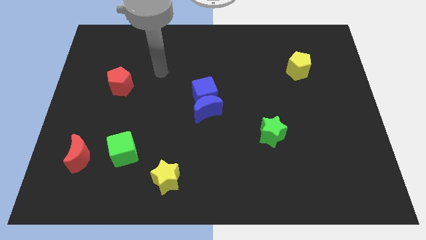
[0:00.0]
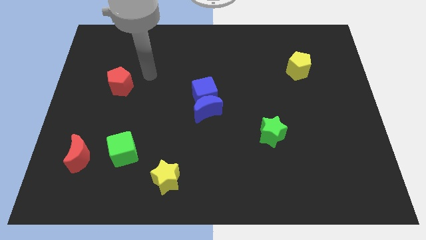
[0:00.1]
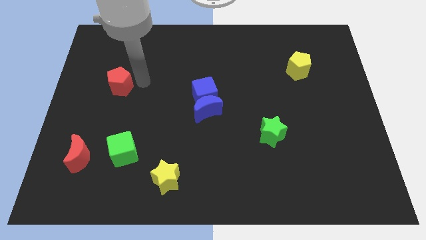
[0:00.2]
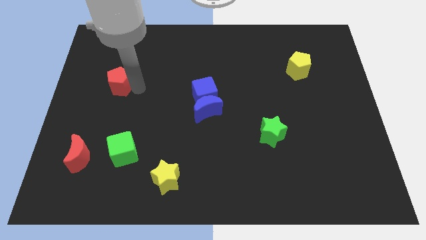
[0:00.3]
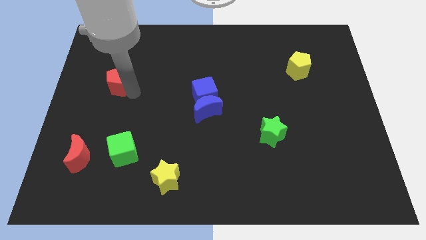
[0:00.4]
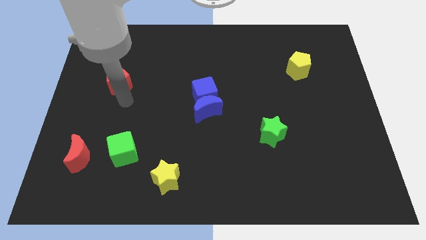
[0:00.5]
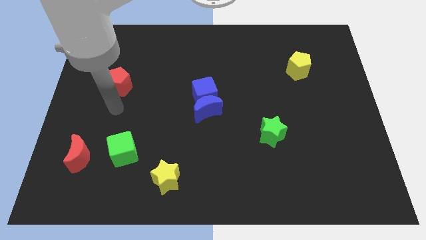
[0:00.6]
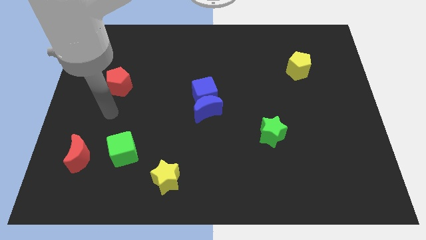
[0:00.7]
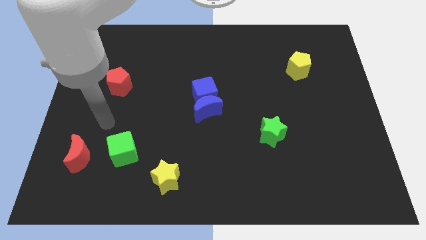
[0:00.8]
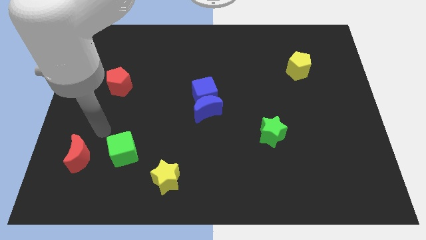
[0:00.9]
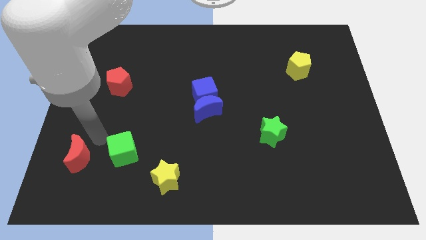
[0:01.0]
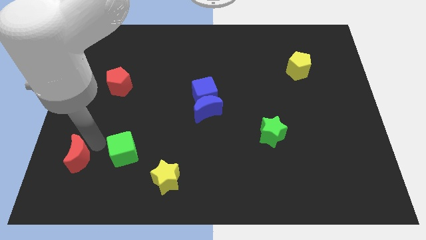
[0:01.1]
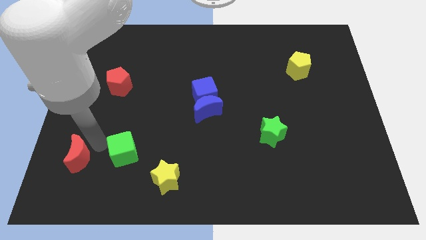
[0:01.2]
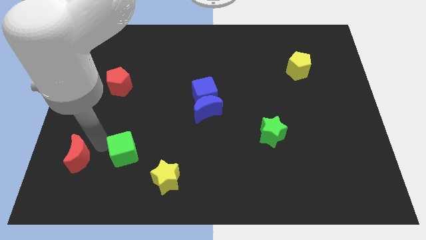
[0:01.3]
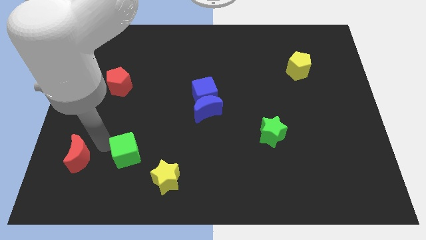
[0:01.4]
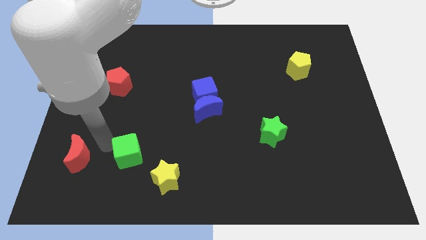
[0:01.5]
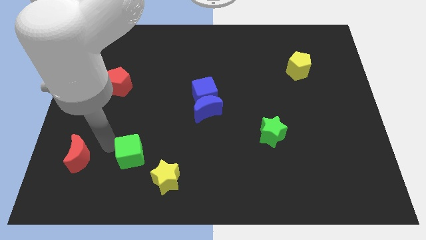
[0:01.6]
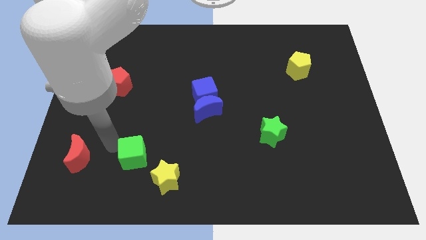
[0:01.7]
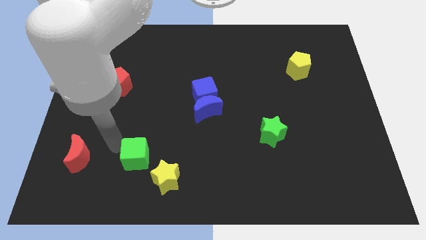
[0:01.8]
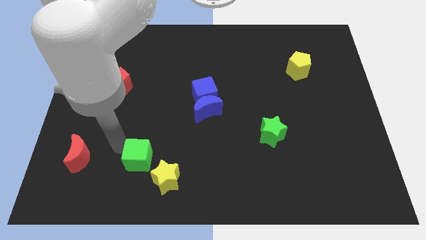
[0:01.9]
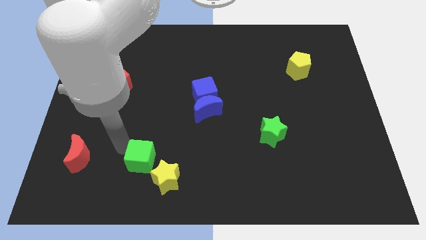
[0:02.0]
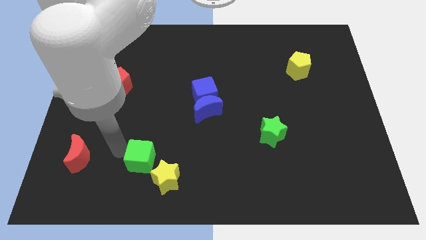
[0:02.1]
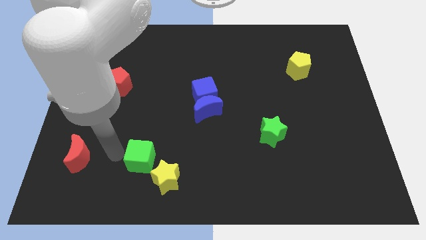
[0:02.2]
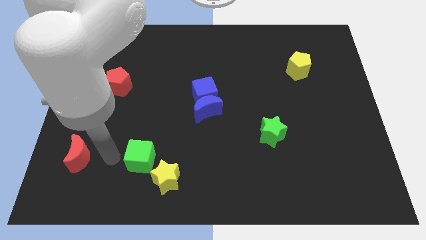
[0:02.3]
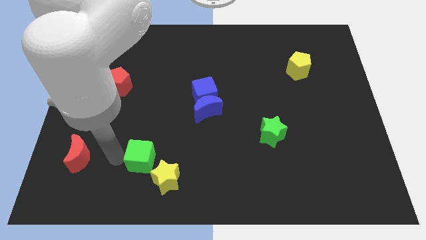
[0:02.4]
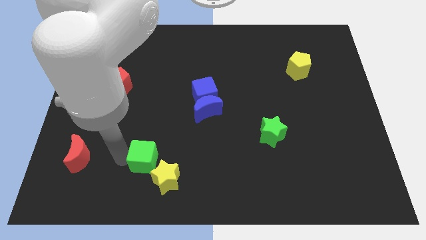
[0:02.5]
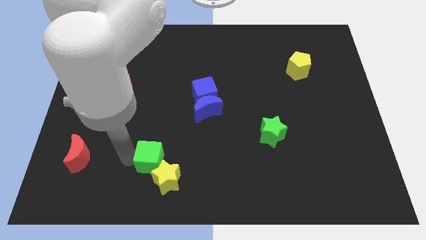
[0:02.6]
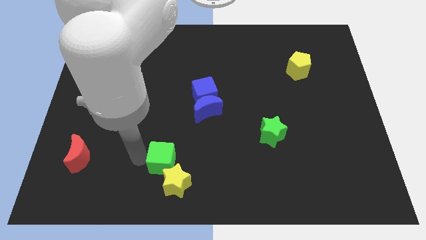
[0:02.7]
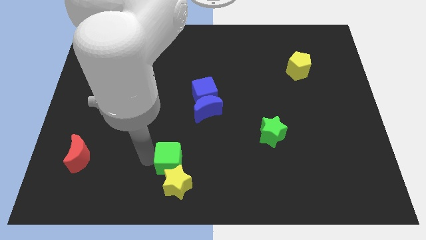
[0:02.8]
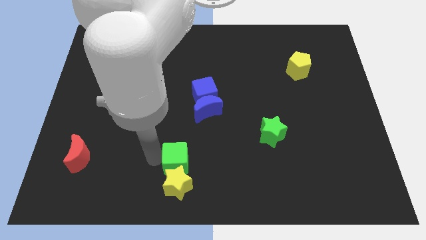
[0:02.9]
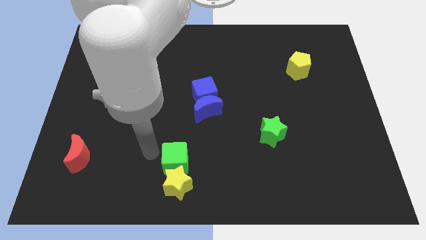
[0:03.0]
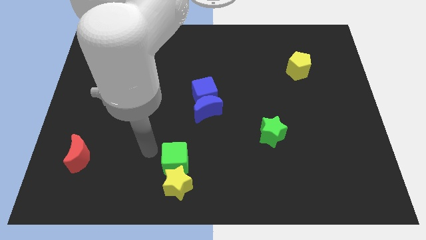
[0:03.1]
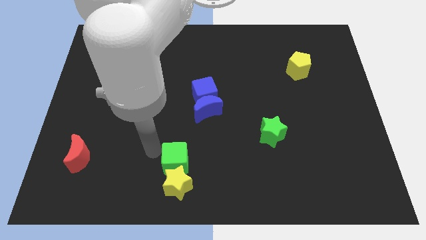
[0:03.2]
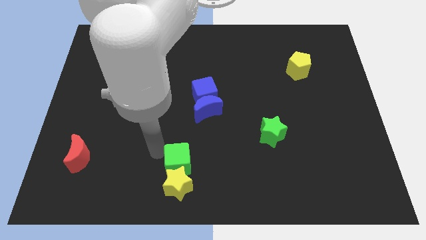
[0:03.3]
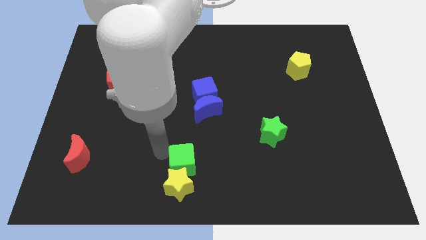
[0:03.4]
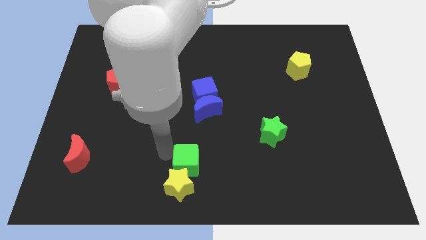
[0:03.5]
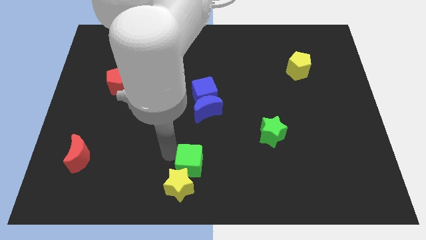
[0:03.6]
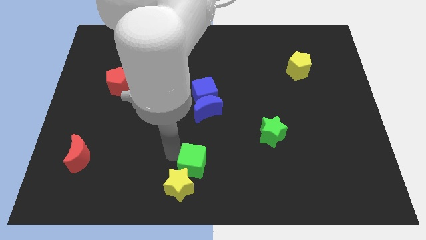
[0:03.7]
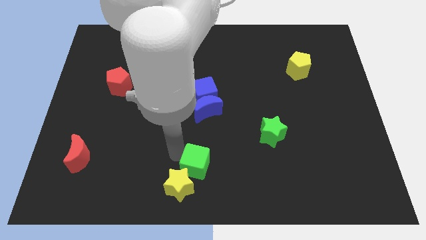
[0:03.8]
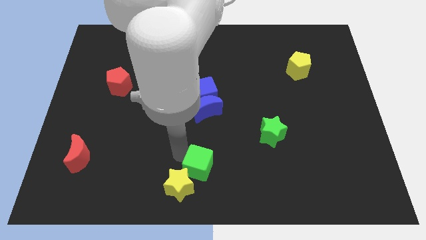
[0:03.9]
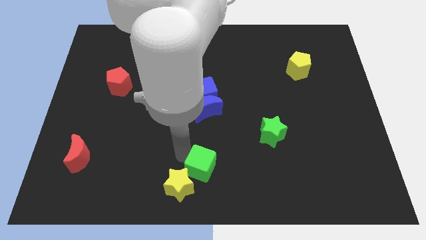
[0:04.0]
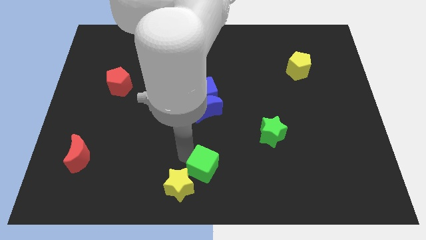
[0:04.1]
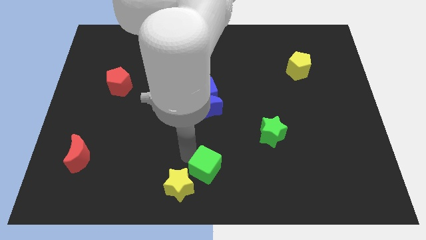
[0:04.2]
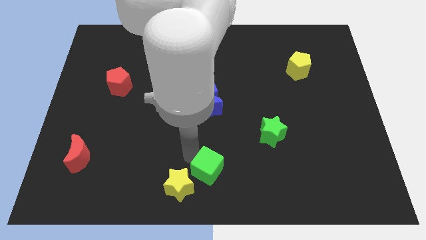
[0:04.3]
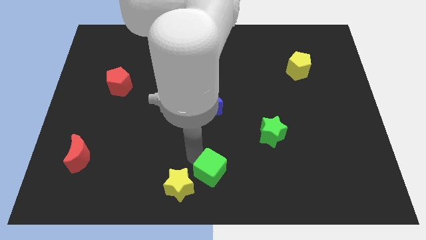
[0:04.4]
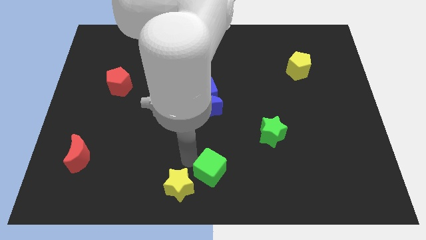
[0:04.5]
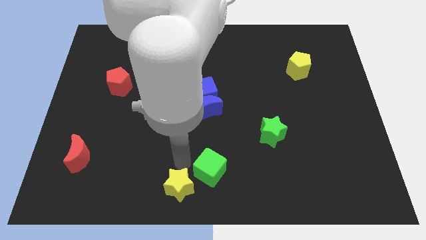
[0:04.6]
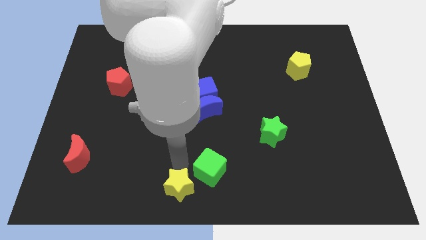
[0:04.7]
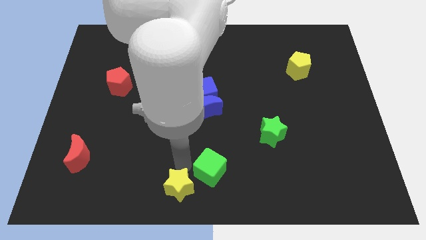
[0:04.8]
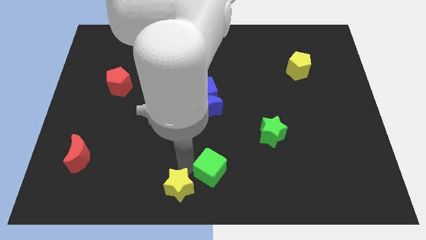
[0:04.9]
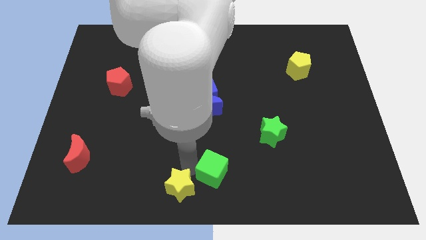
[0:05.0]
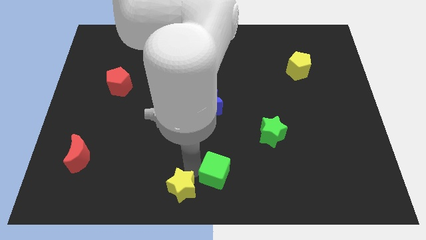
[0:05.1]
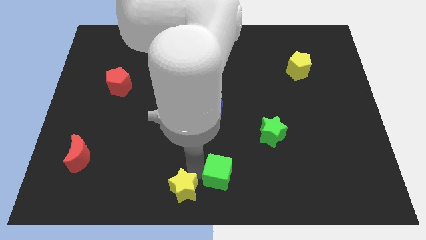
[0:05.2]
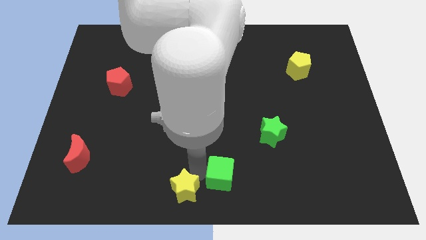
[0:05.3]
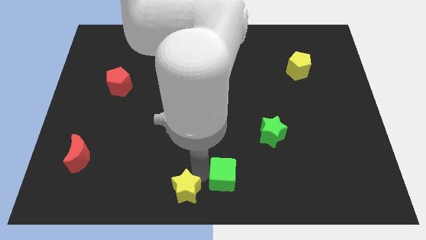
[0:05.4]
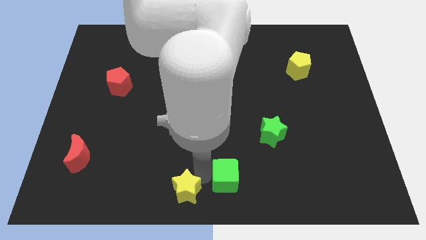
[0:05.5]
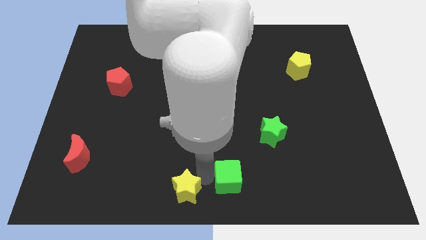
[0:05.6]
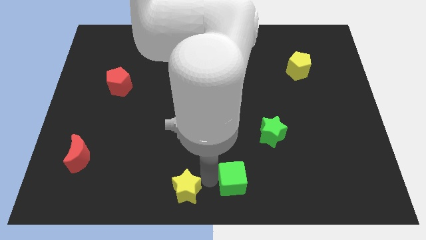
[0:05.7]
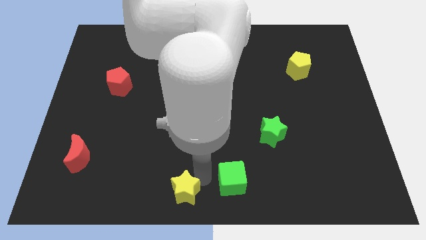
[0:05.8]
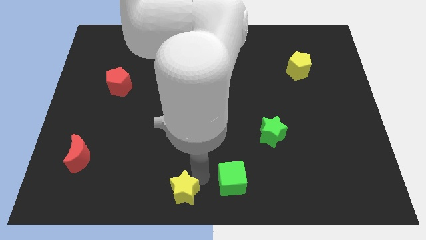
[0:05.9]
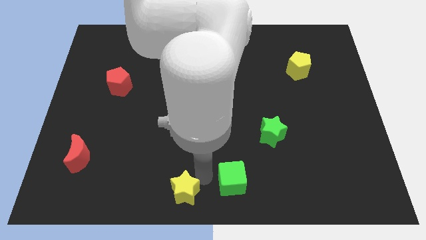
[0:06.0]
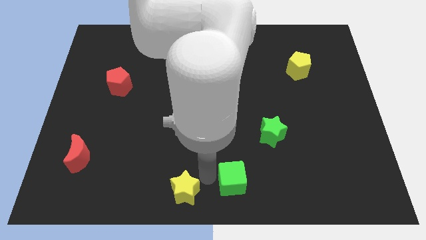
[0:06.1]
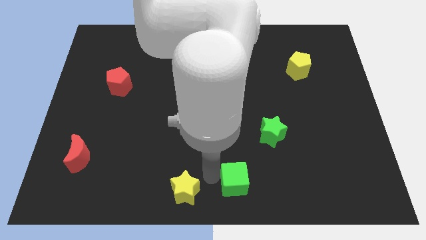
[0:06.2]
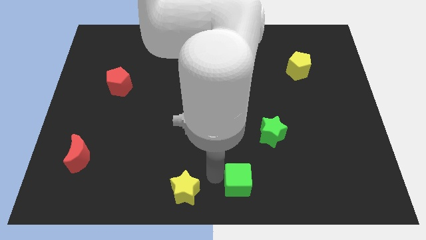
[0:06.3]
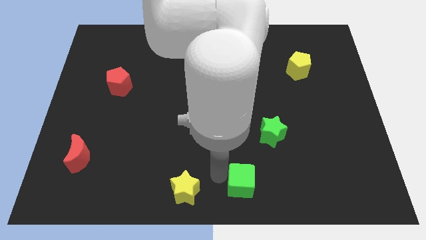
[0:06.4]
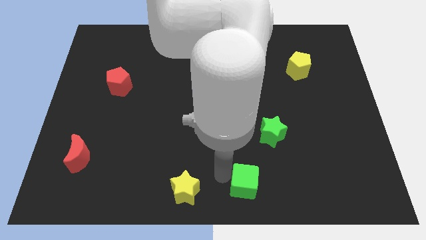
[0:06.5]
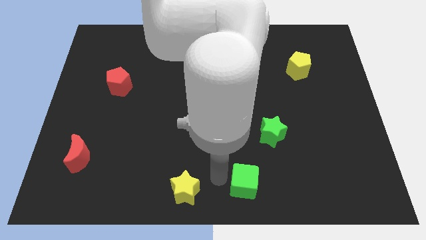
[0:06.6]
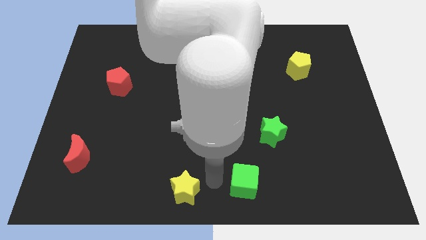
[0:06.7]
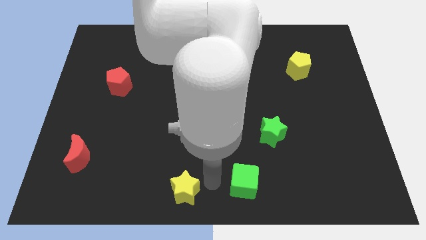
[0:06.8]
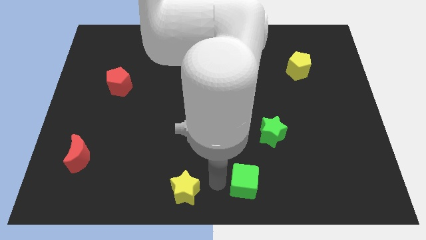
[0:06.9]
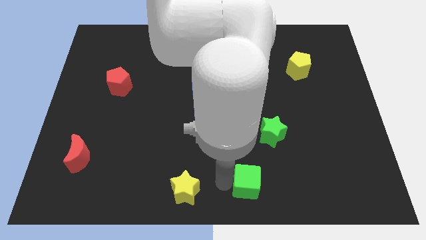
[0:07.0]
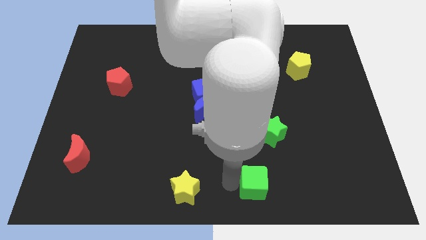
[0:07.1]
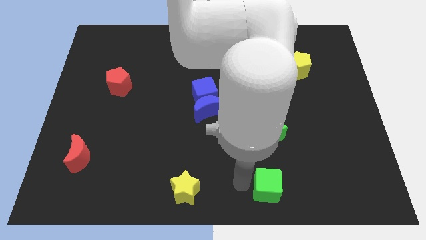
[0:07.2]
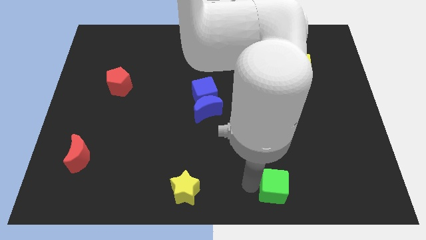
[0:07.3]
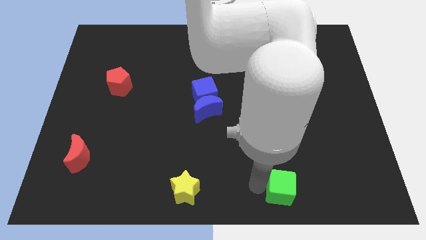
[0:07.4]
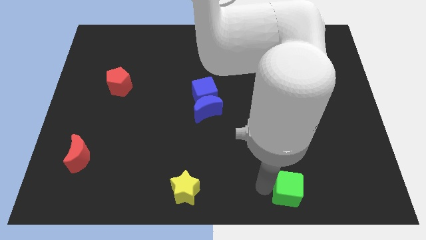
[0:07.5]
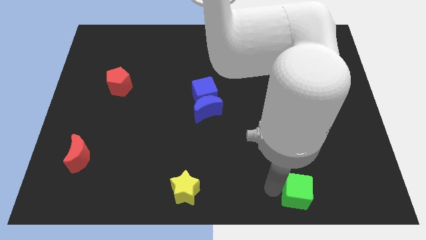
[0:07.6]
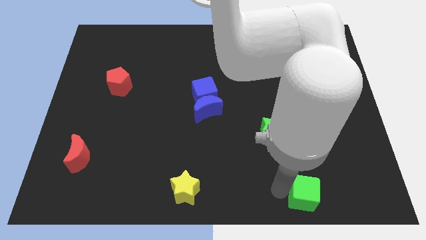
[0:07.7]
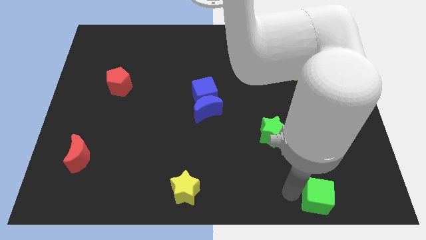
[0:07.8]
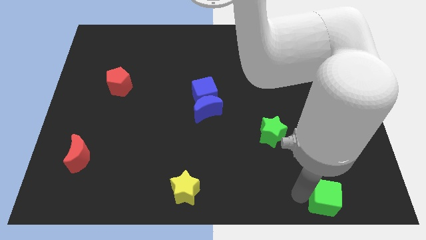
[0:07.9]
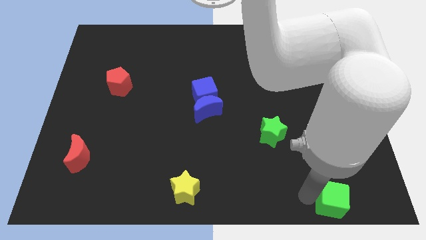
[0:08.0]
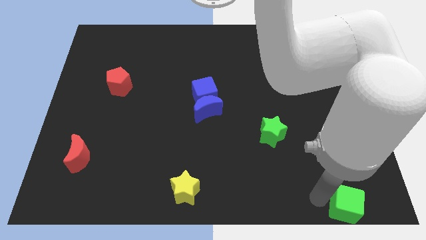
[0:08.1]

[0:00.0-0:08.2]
move the green cube to the bottom right of the board
